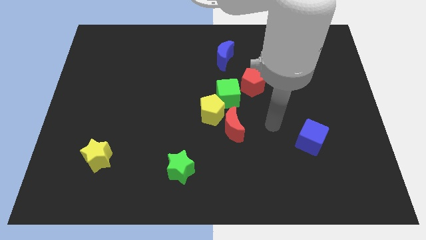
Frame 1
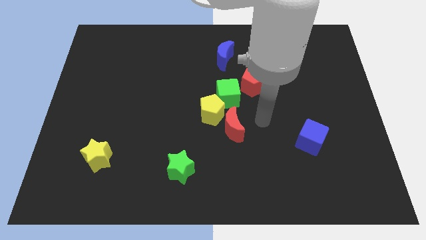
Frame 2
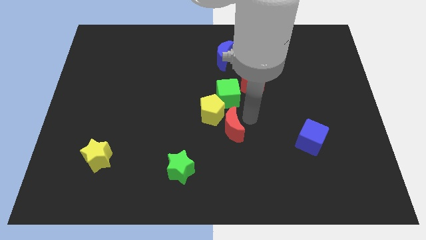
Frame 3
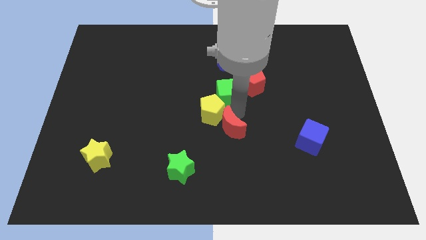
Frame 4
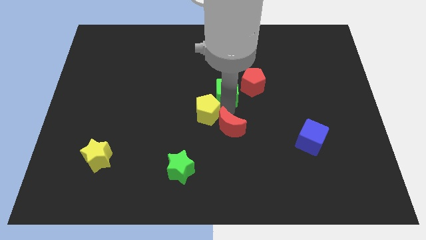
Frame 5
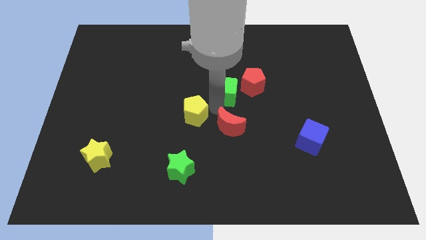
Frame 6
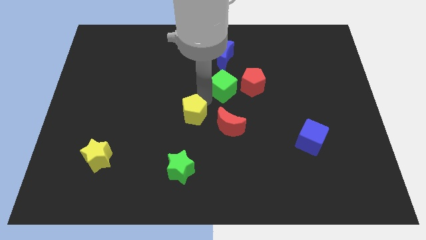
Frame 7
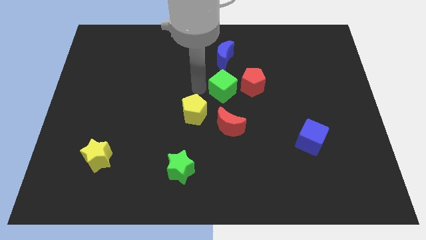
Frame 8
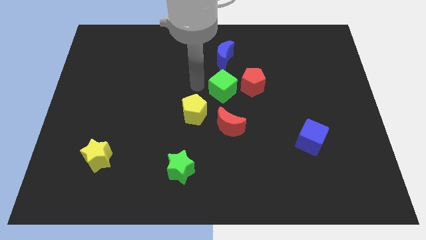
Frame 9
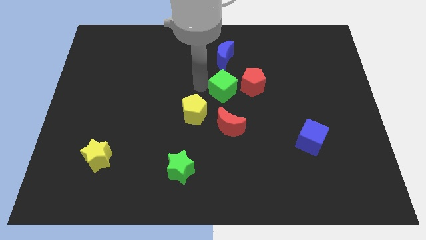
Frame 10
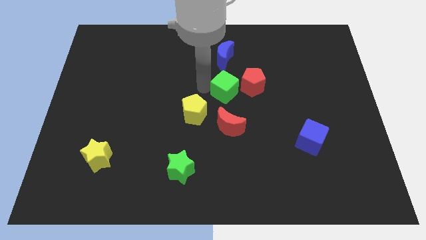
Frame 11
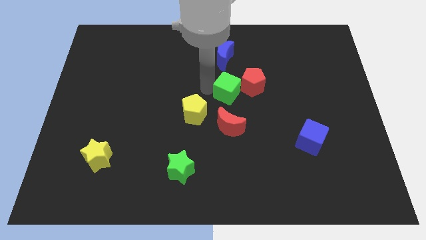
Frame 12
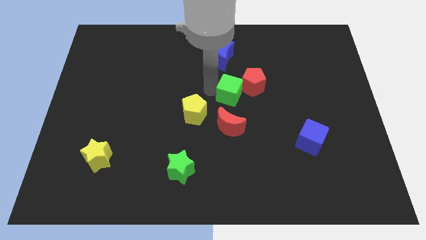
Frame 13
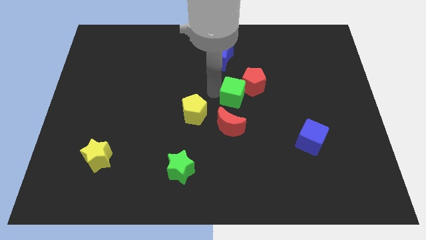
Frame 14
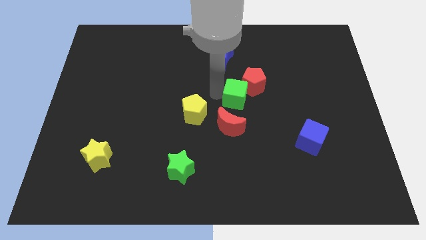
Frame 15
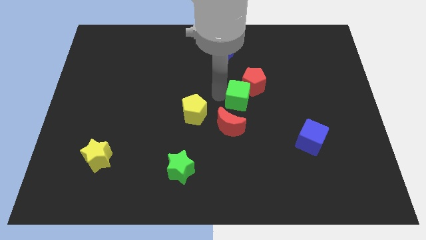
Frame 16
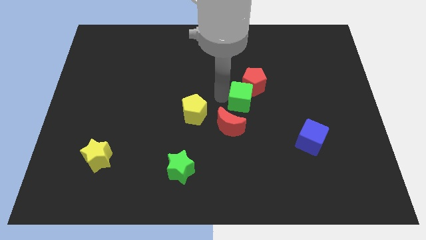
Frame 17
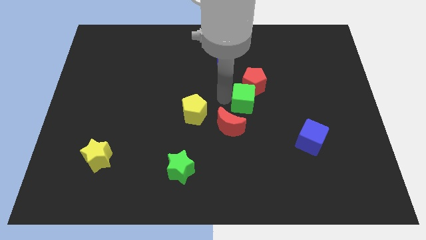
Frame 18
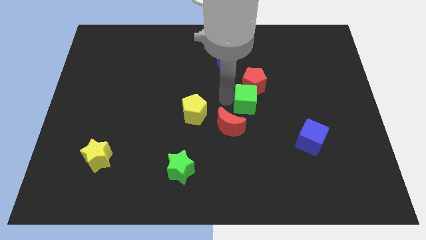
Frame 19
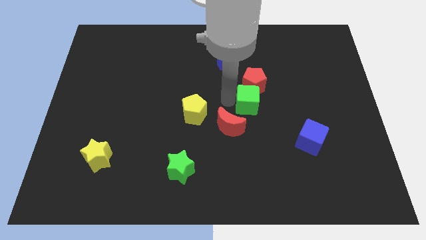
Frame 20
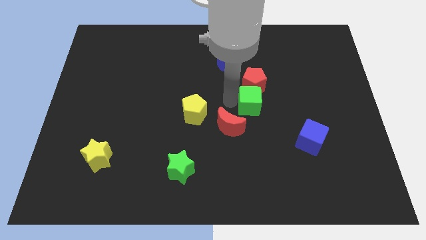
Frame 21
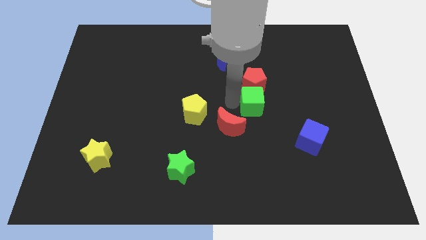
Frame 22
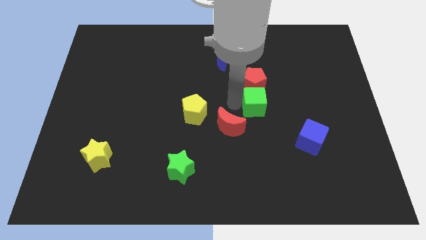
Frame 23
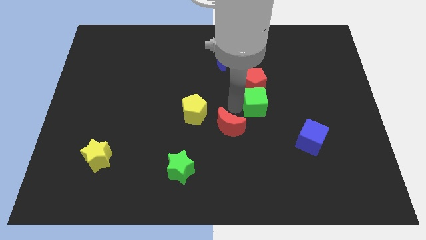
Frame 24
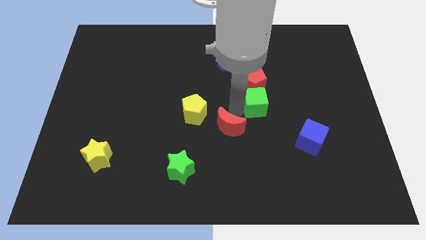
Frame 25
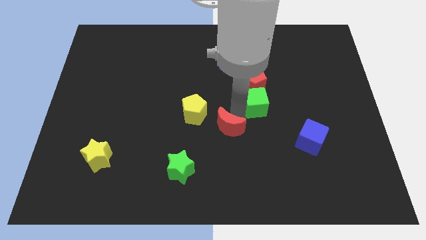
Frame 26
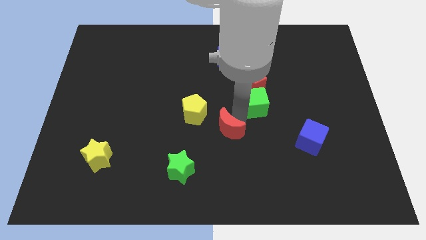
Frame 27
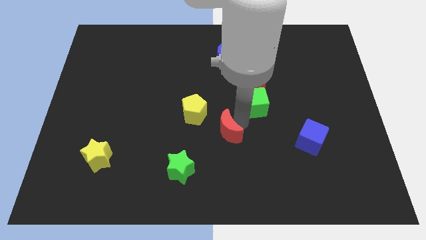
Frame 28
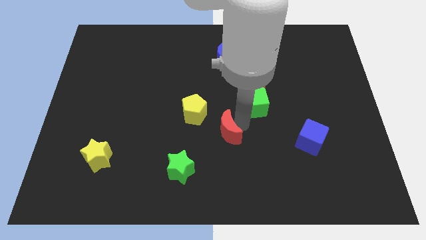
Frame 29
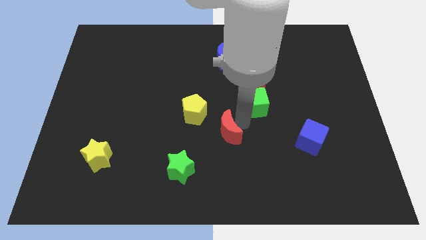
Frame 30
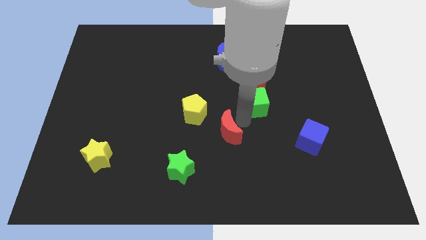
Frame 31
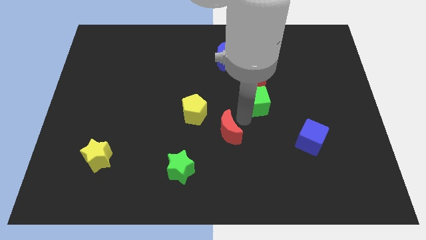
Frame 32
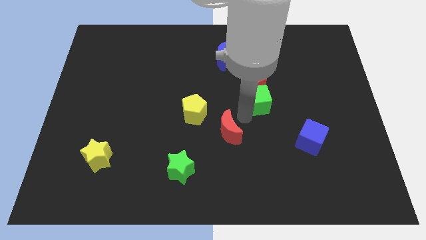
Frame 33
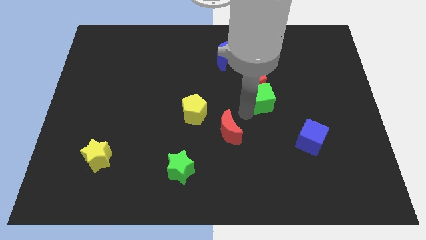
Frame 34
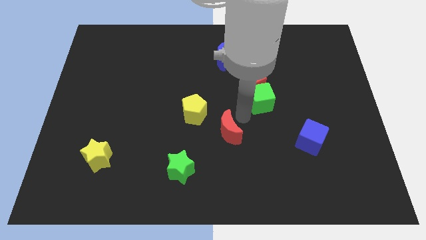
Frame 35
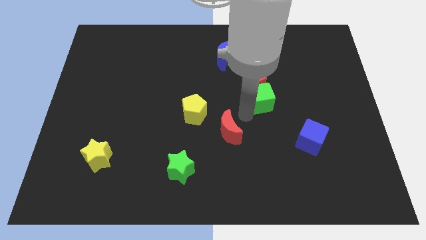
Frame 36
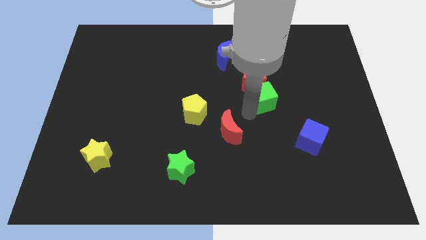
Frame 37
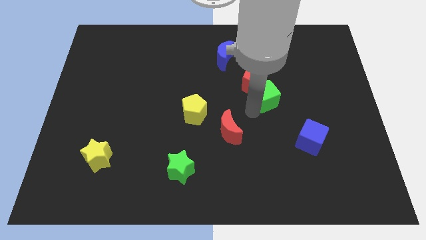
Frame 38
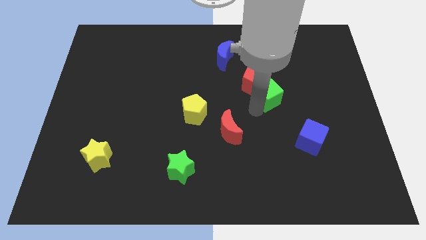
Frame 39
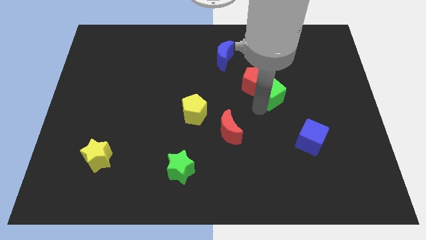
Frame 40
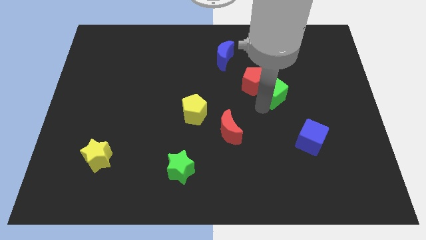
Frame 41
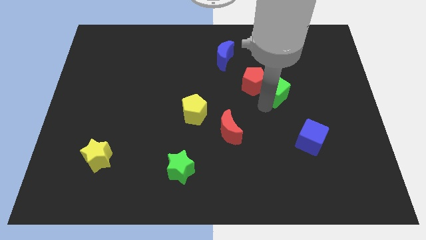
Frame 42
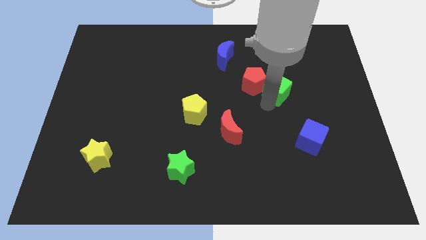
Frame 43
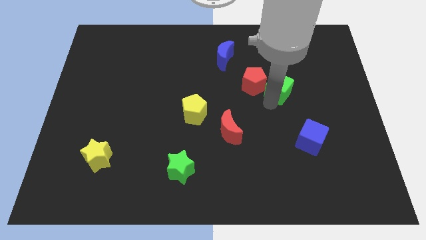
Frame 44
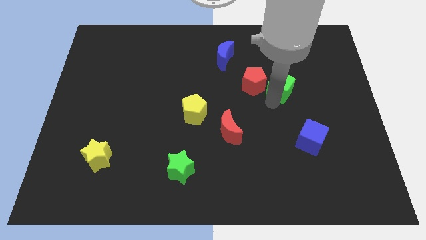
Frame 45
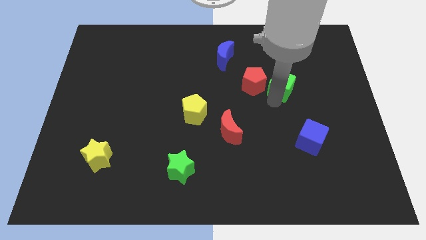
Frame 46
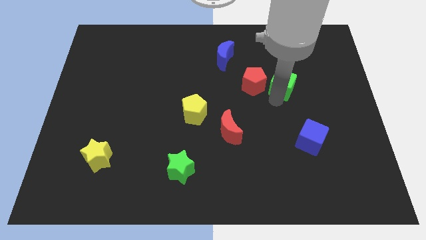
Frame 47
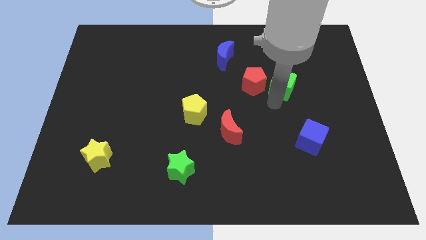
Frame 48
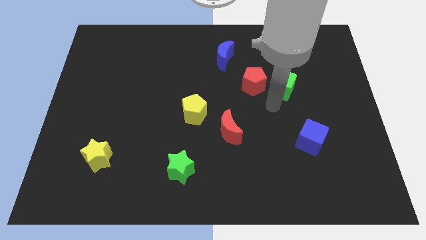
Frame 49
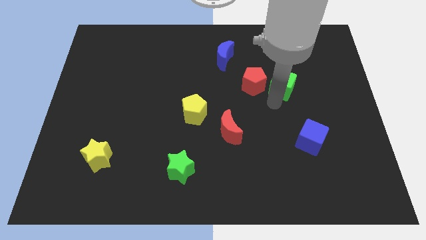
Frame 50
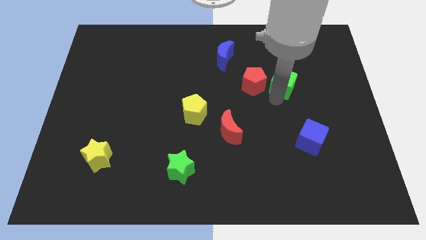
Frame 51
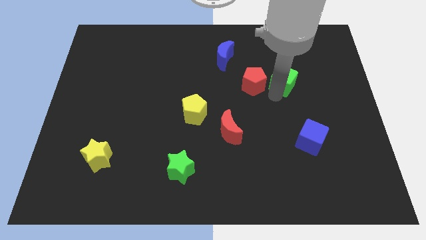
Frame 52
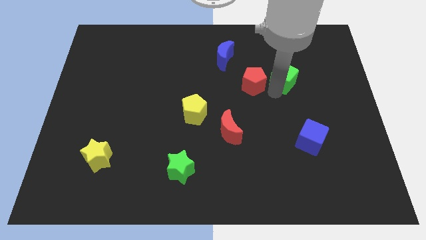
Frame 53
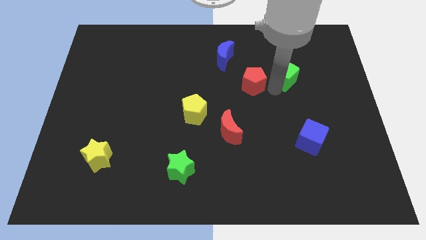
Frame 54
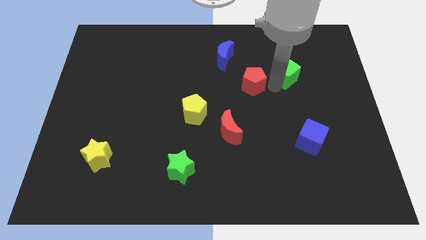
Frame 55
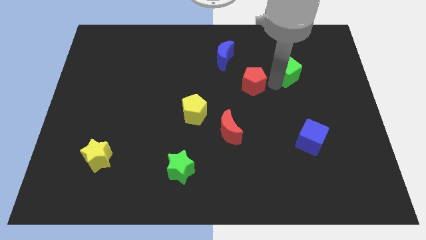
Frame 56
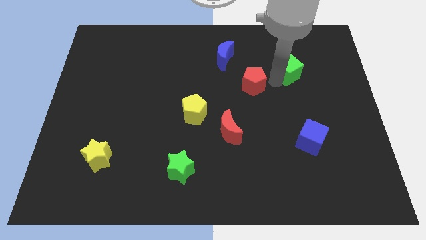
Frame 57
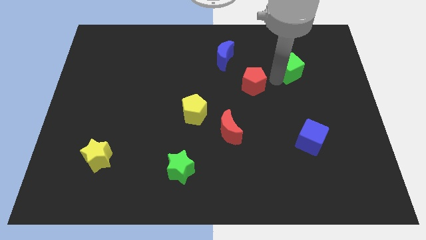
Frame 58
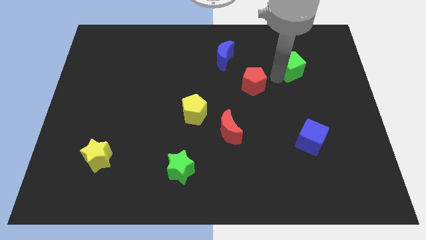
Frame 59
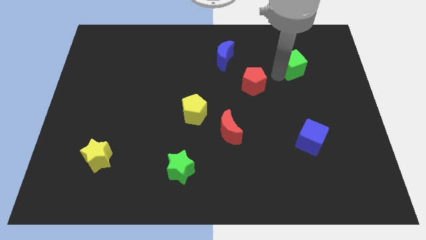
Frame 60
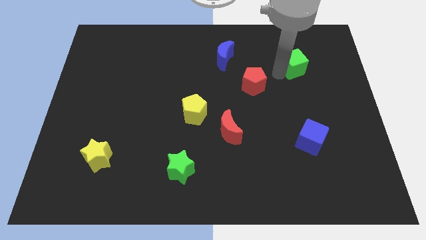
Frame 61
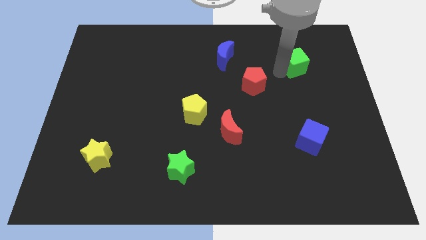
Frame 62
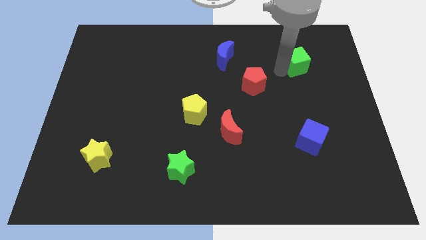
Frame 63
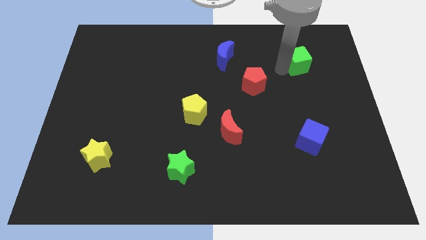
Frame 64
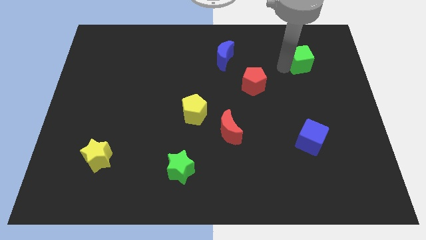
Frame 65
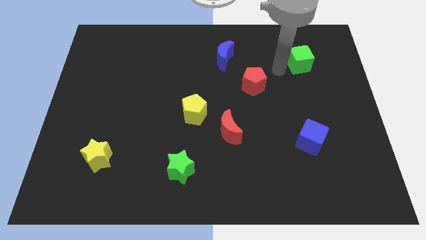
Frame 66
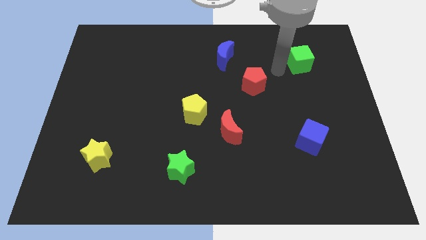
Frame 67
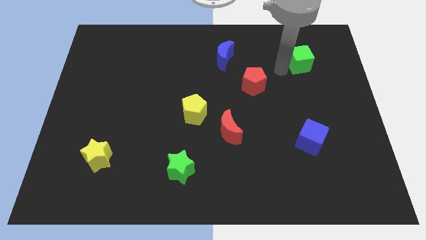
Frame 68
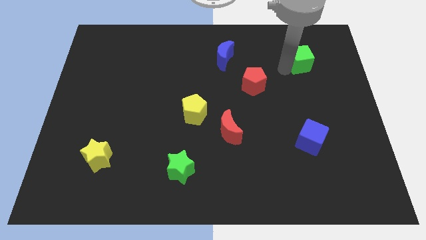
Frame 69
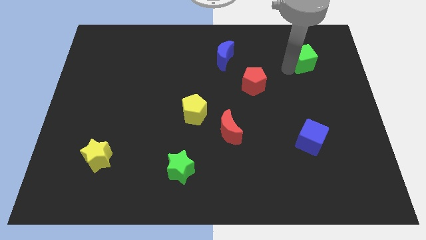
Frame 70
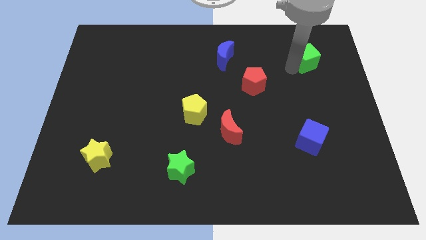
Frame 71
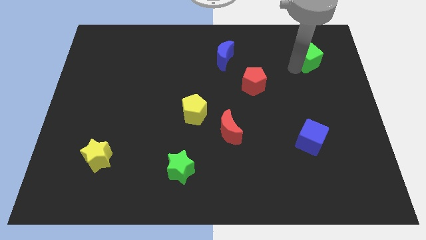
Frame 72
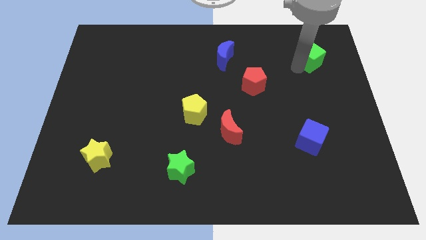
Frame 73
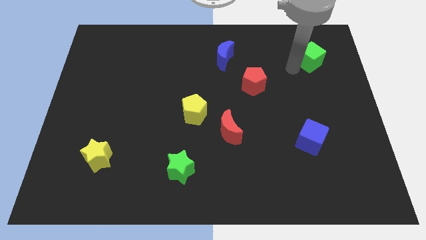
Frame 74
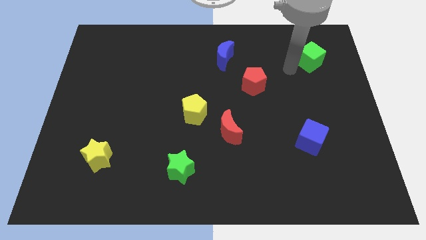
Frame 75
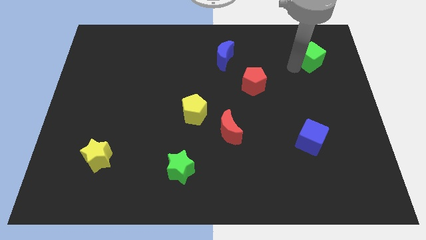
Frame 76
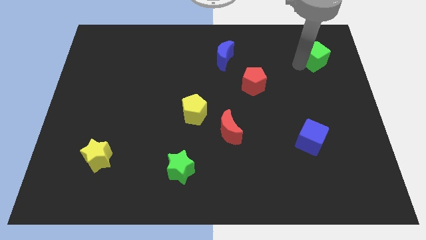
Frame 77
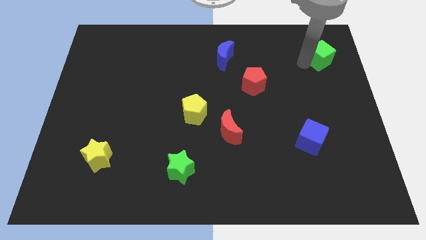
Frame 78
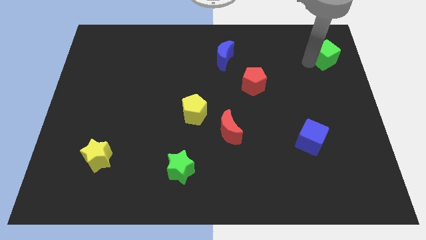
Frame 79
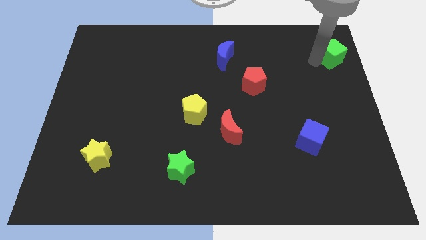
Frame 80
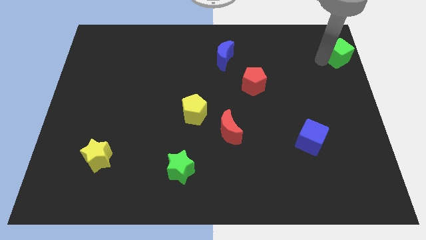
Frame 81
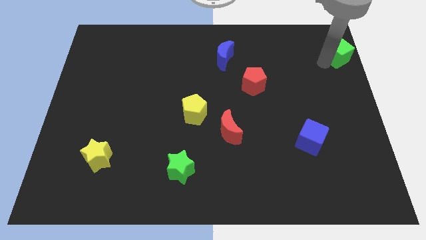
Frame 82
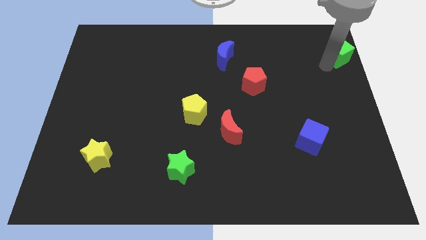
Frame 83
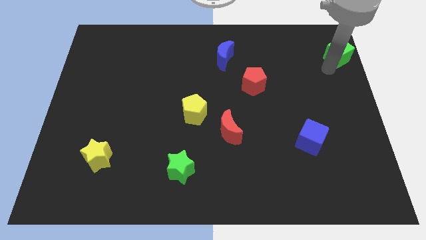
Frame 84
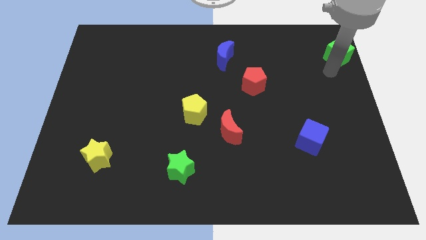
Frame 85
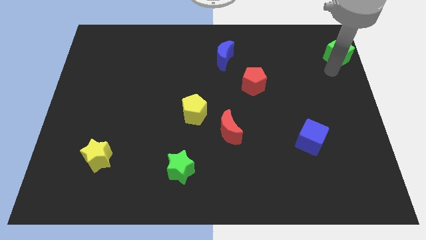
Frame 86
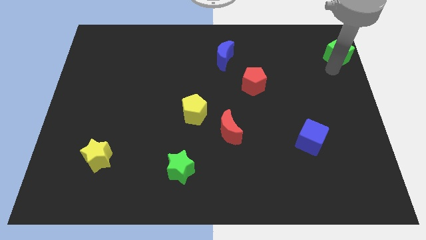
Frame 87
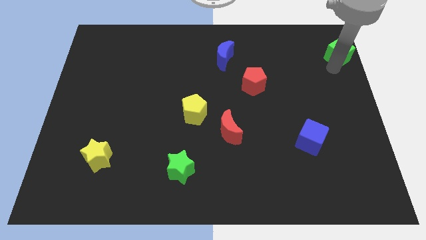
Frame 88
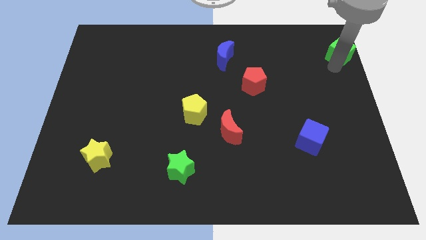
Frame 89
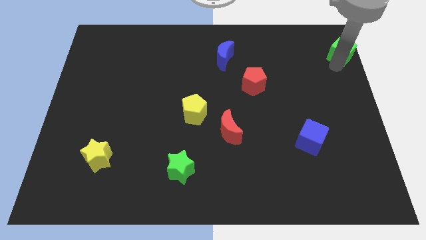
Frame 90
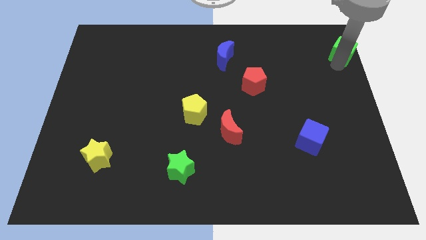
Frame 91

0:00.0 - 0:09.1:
slide the green cube to the top right of the board
